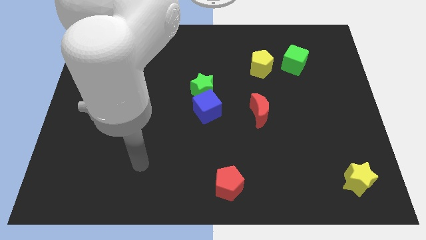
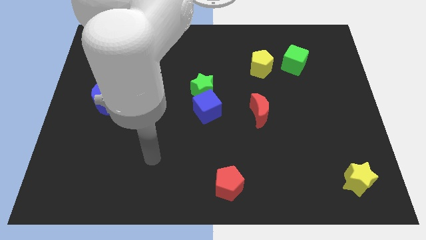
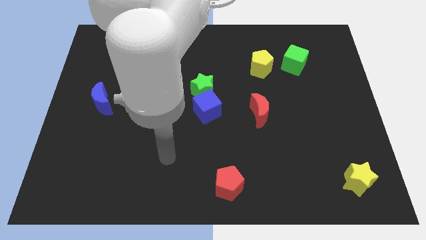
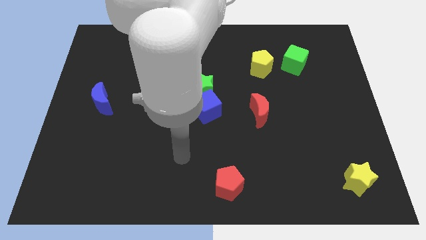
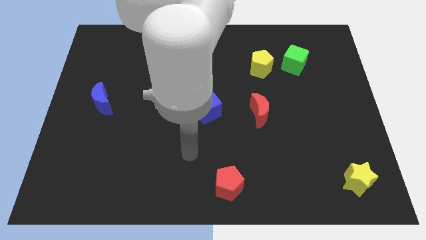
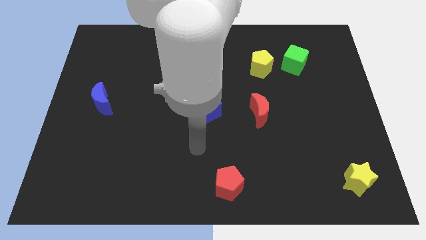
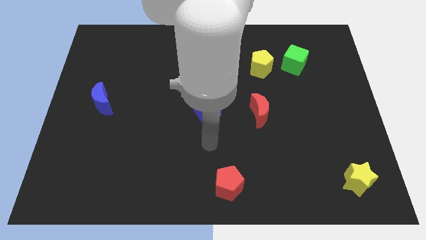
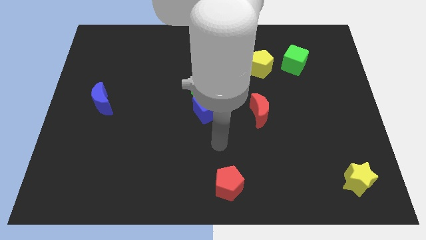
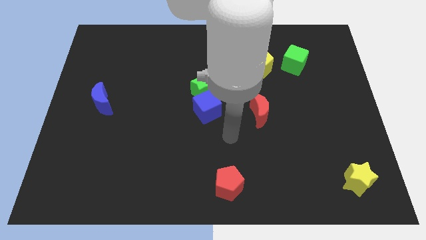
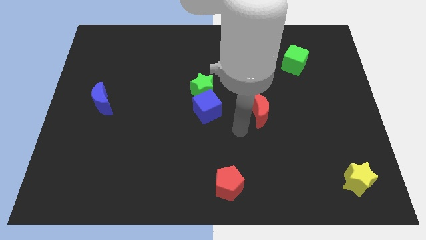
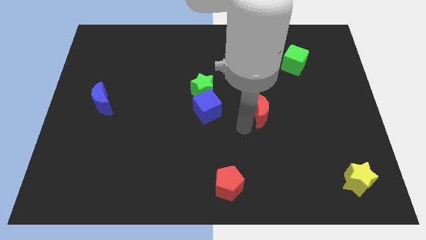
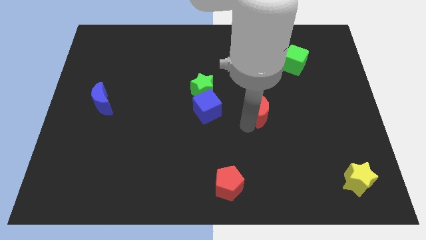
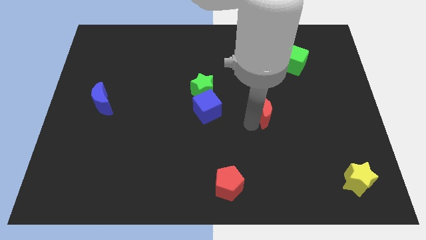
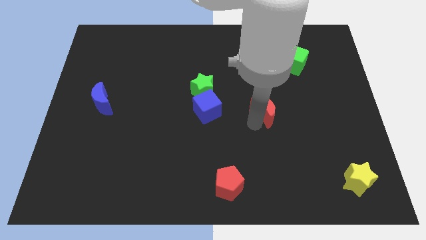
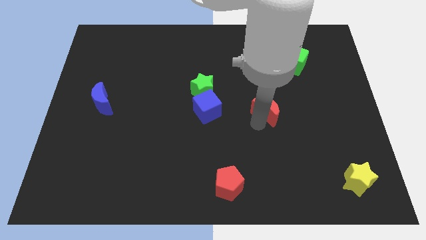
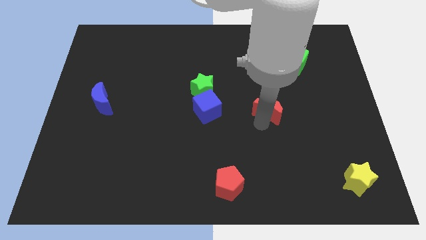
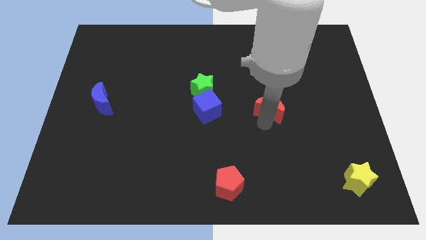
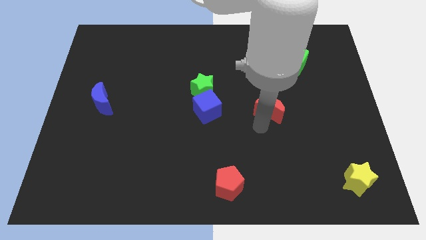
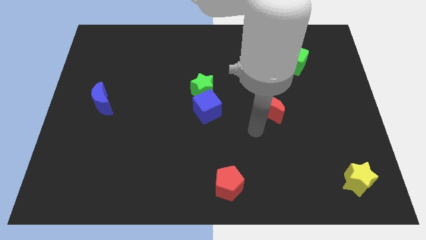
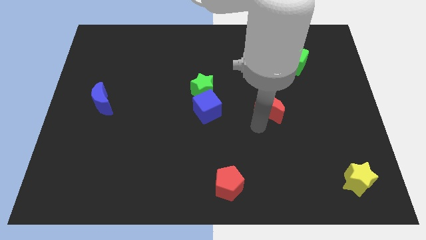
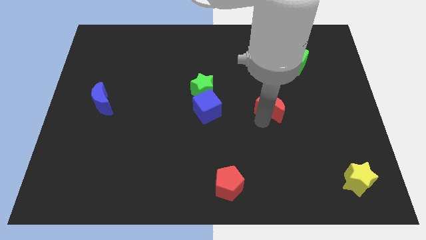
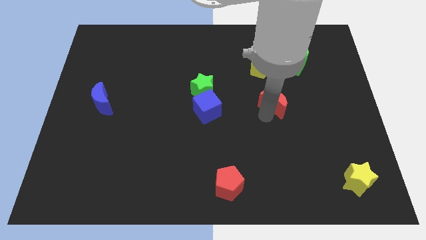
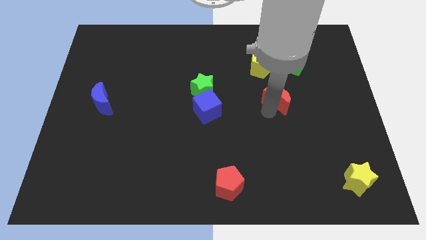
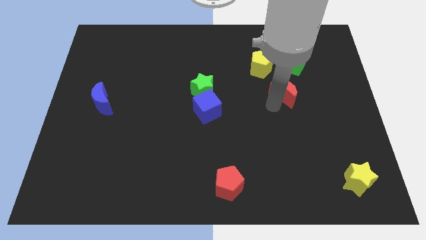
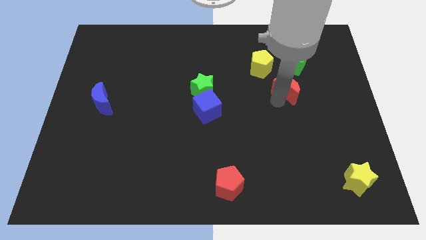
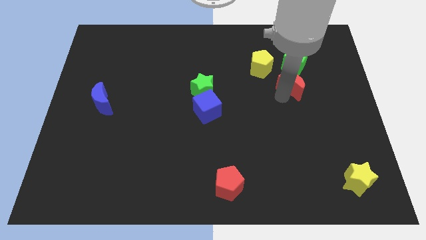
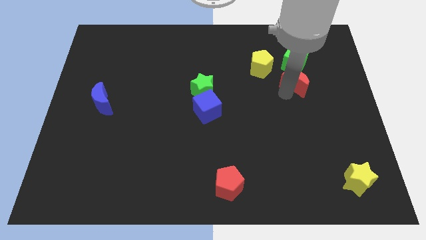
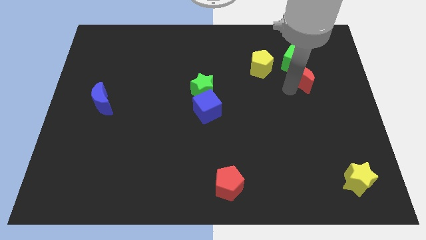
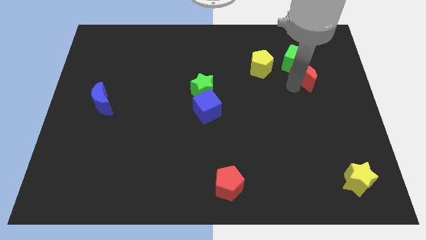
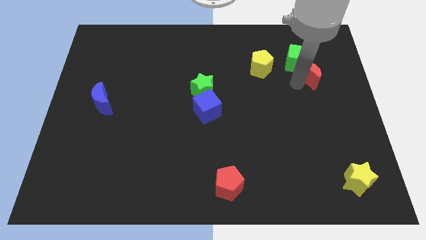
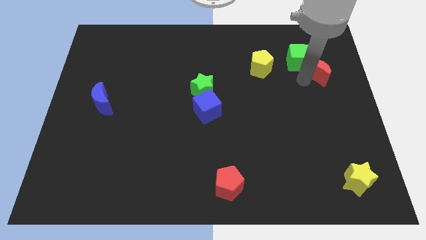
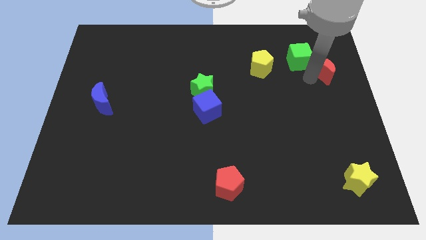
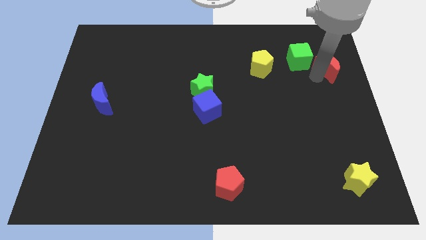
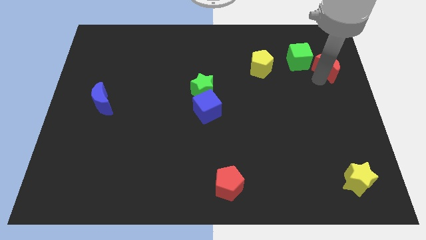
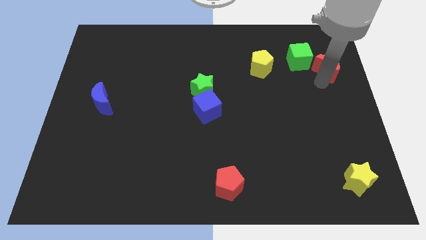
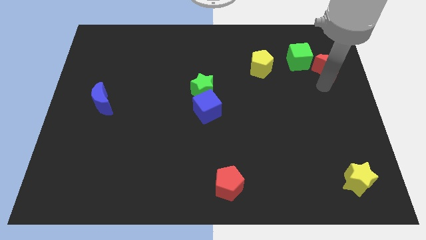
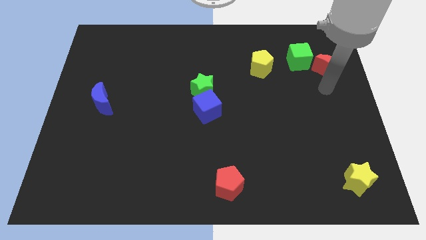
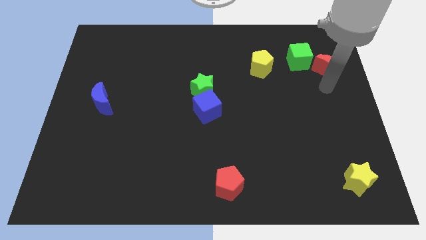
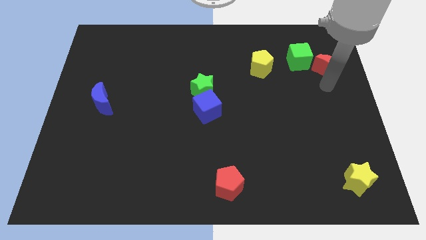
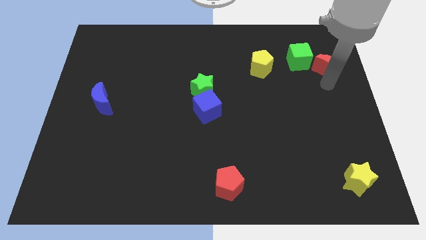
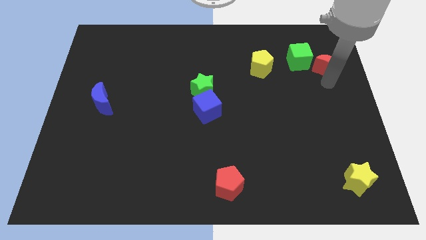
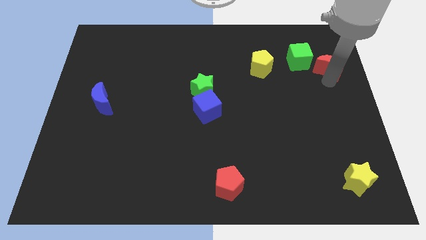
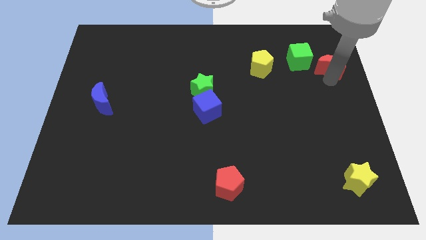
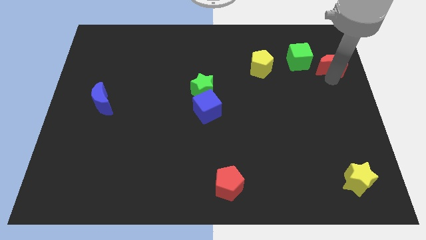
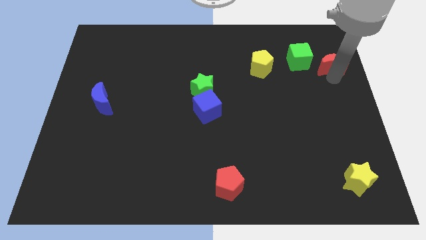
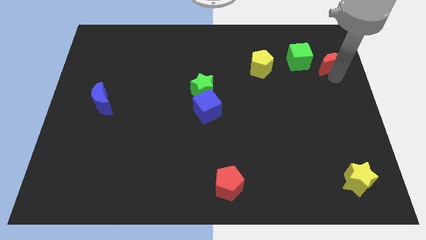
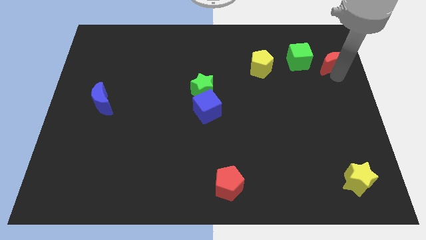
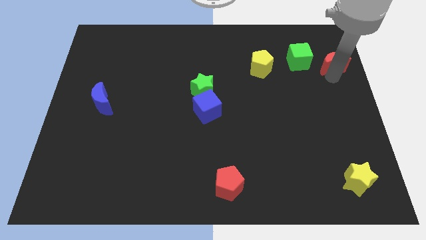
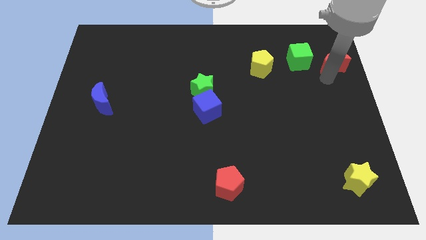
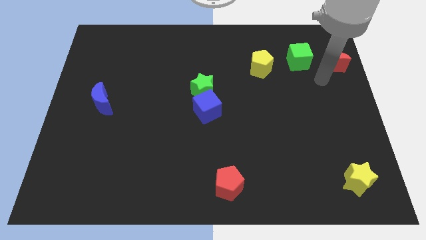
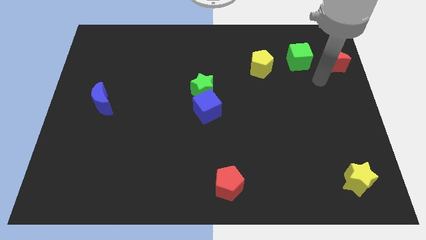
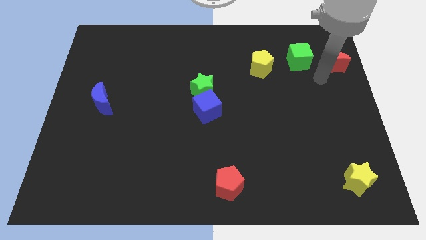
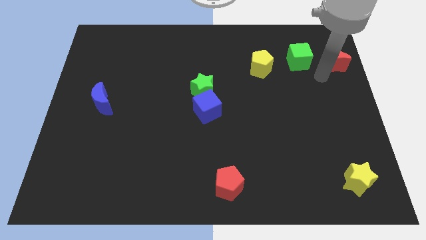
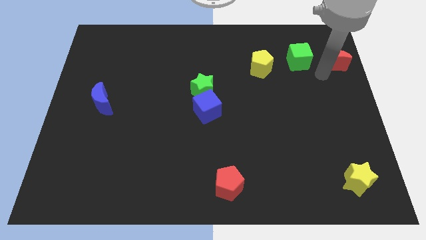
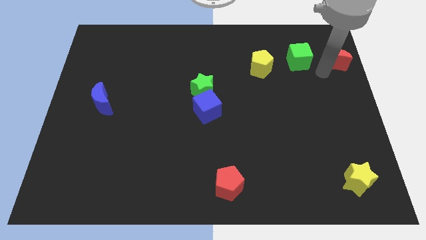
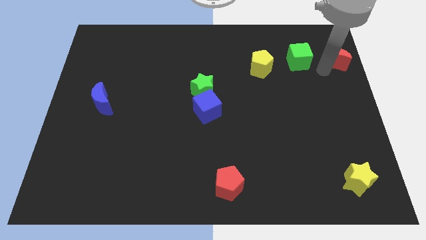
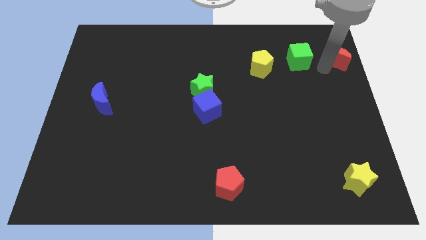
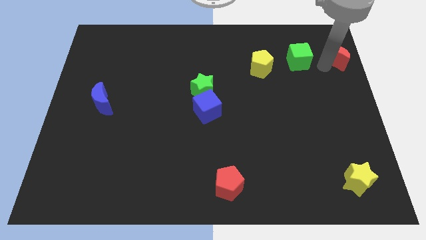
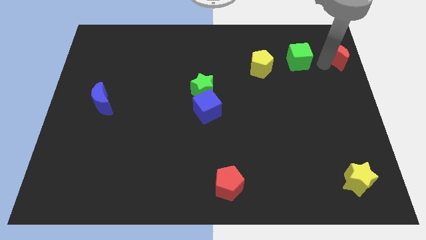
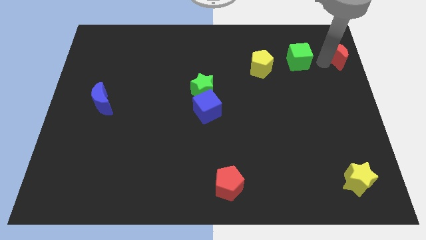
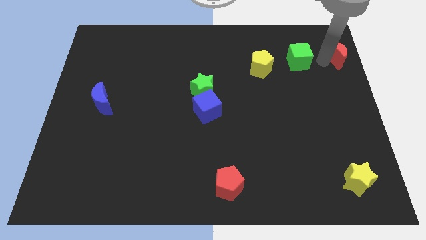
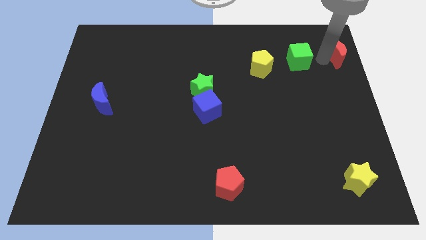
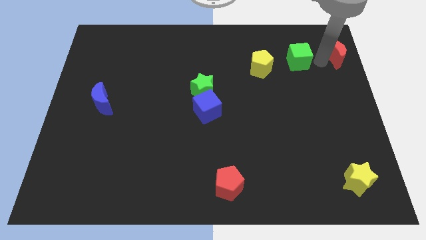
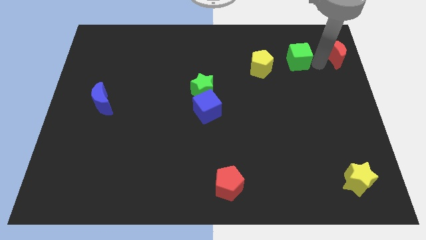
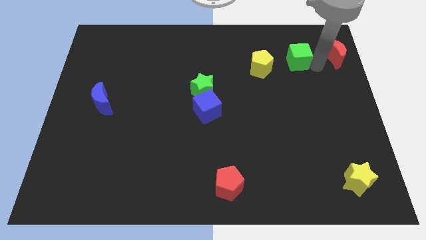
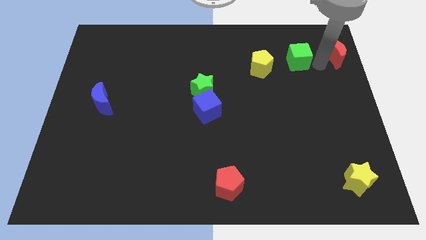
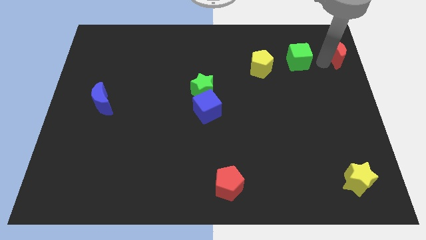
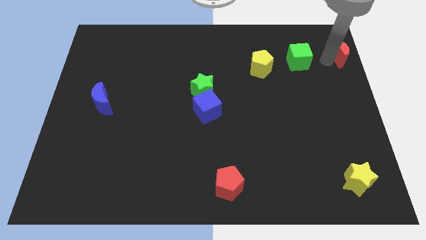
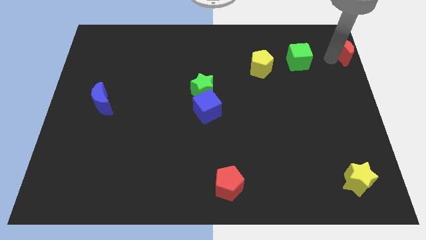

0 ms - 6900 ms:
put the red moon to the top right corner

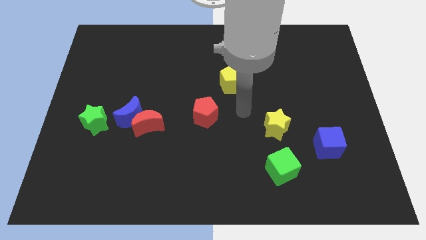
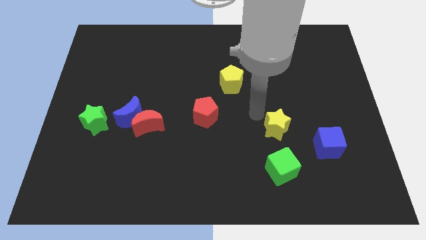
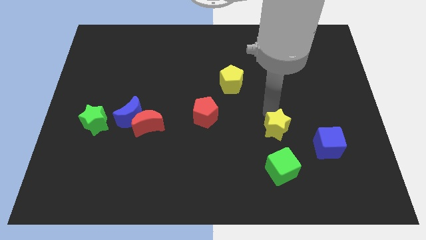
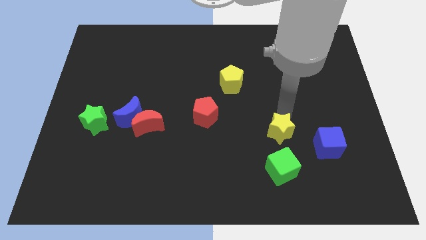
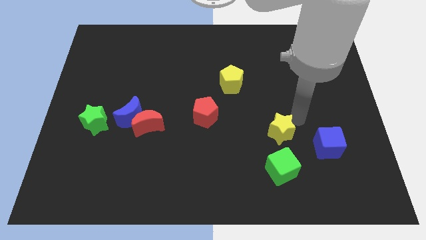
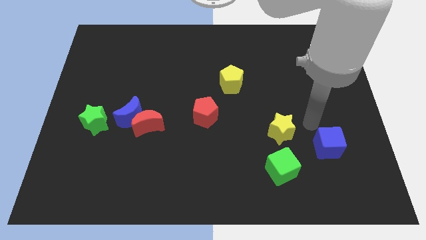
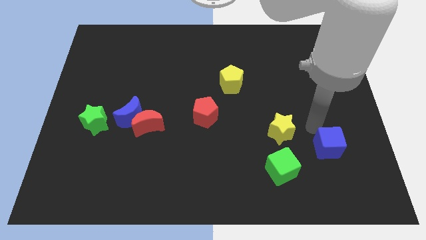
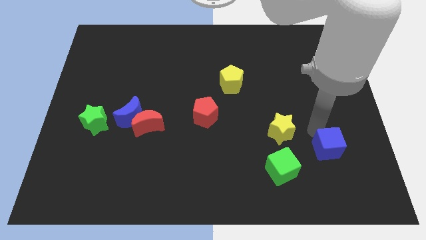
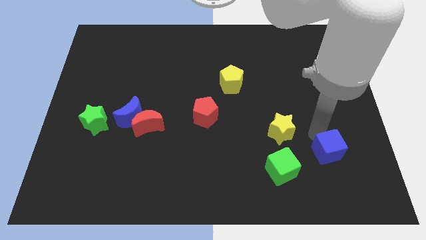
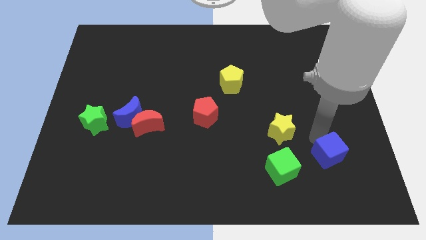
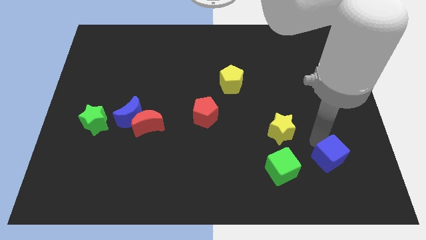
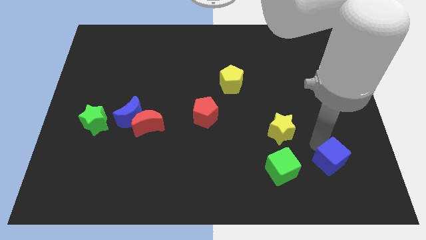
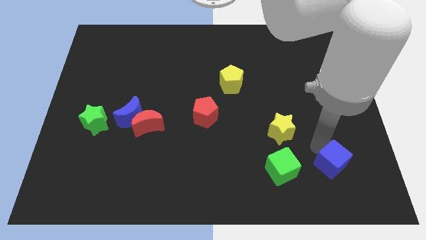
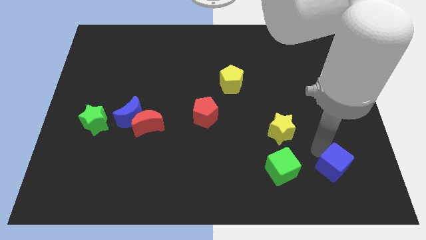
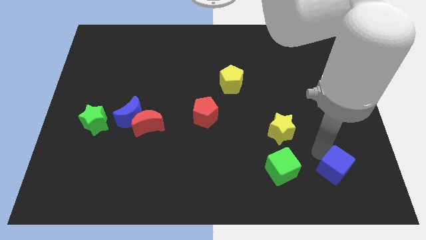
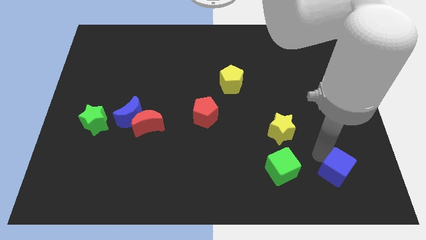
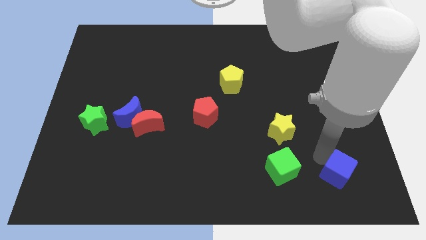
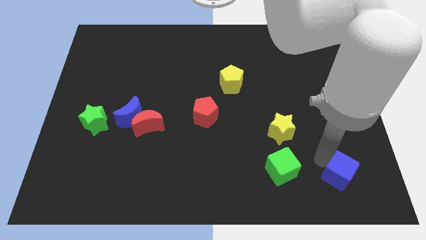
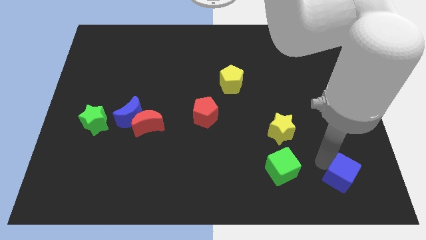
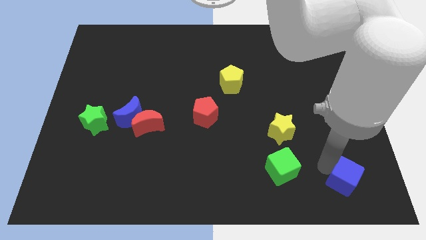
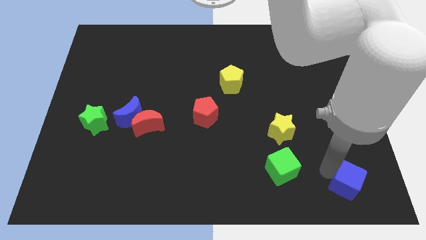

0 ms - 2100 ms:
move the blue cube to the bottom right
